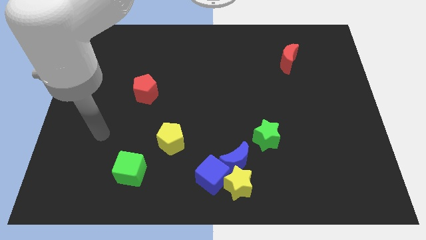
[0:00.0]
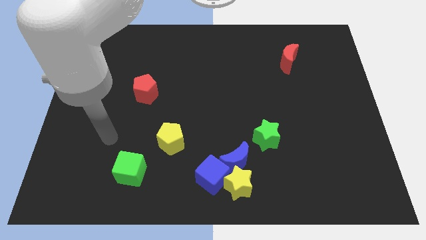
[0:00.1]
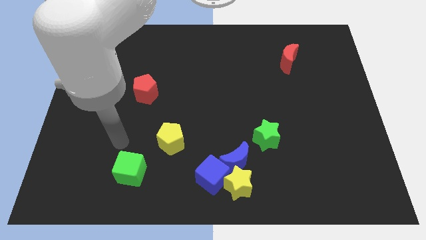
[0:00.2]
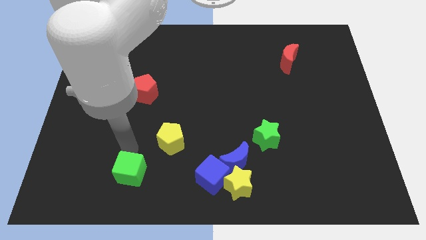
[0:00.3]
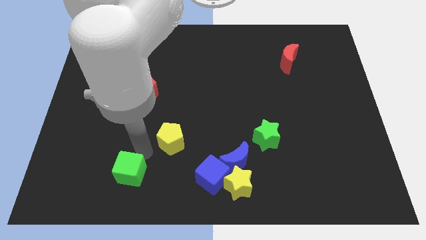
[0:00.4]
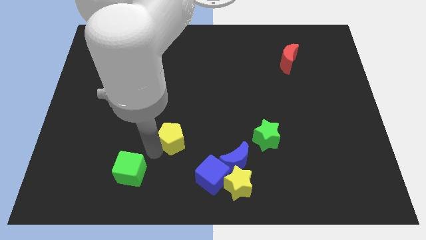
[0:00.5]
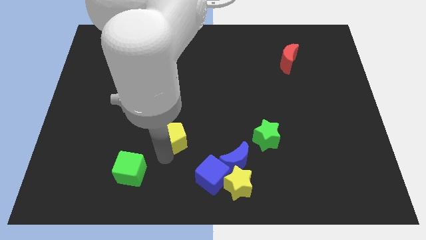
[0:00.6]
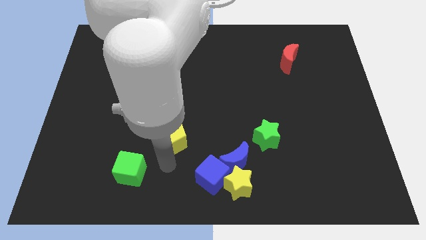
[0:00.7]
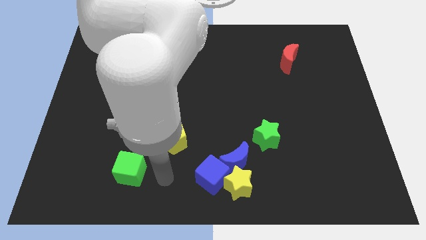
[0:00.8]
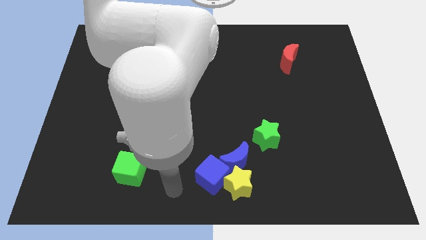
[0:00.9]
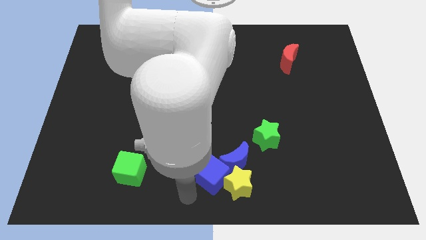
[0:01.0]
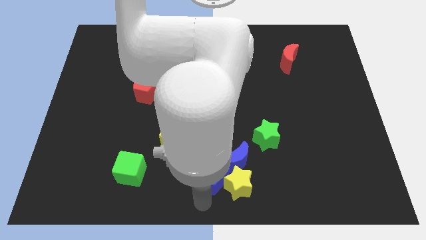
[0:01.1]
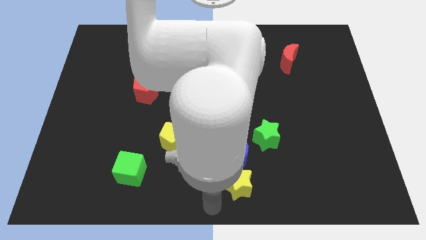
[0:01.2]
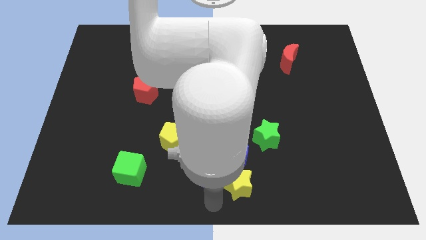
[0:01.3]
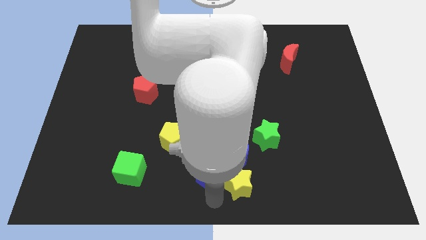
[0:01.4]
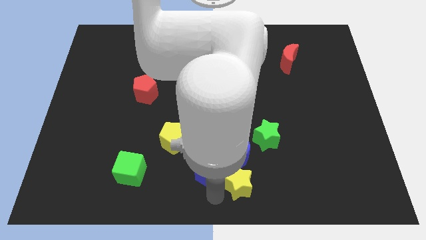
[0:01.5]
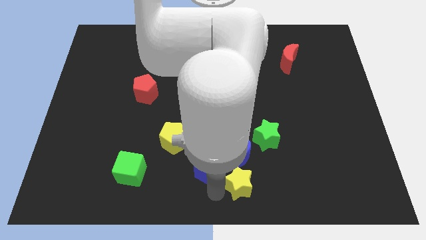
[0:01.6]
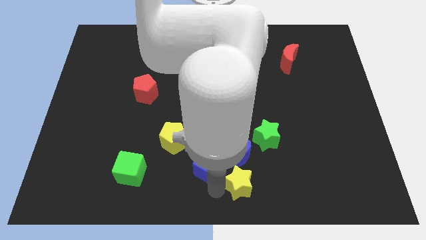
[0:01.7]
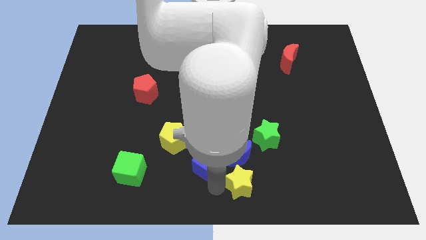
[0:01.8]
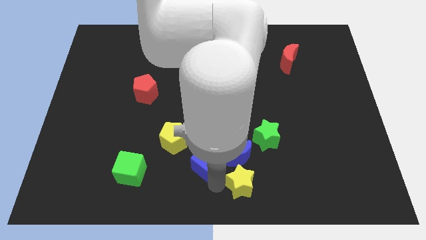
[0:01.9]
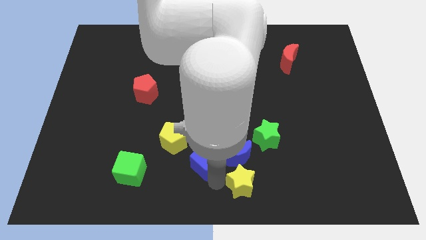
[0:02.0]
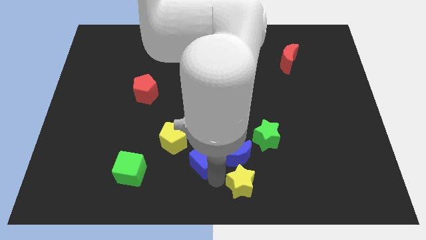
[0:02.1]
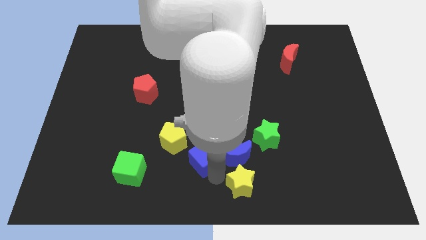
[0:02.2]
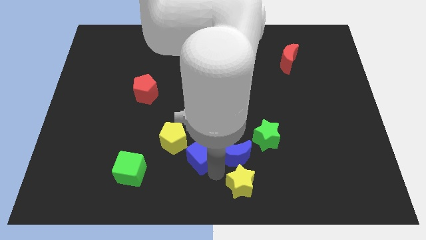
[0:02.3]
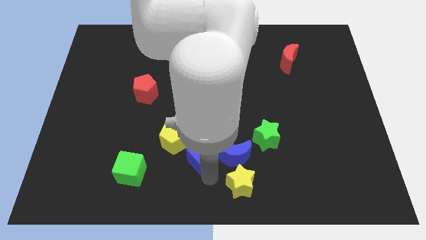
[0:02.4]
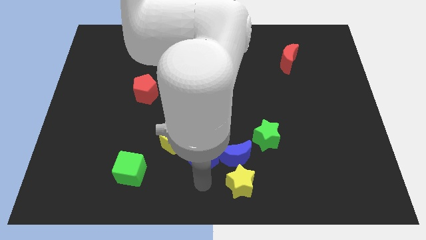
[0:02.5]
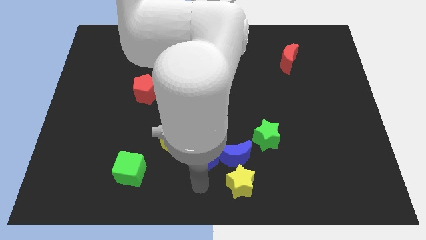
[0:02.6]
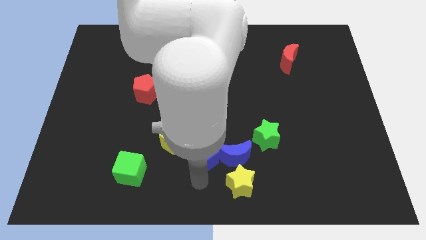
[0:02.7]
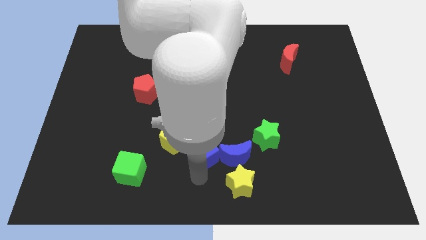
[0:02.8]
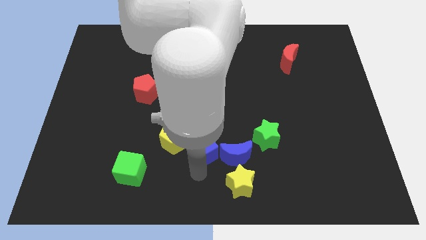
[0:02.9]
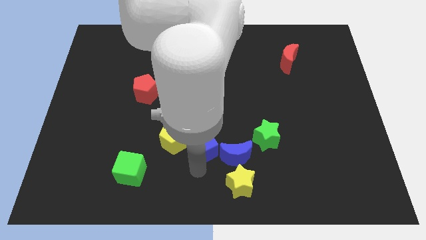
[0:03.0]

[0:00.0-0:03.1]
slightly push the blue cube up

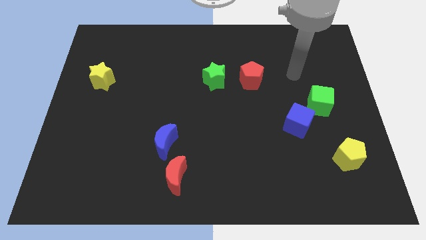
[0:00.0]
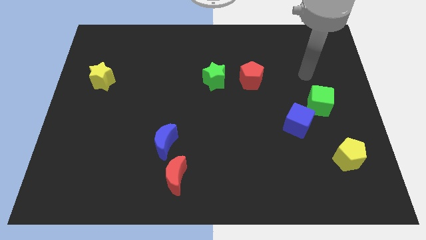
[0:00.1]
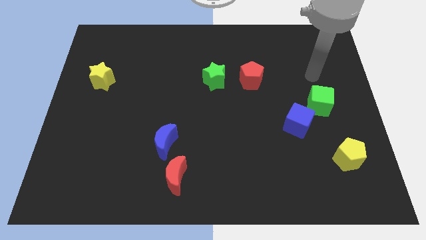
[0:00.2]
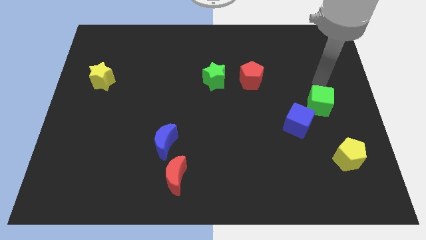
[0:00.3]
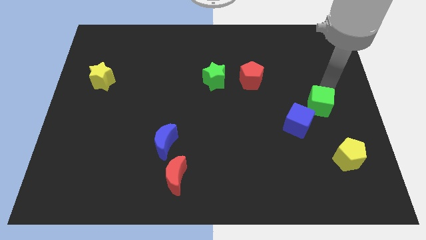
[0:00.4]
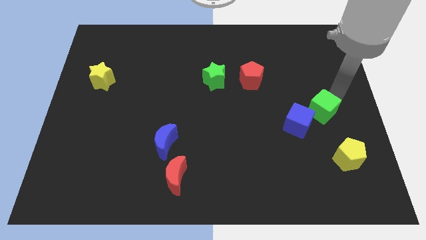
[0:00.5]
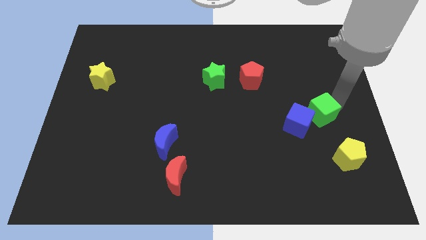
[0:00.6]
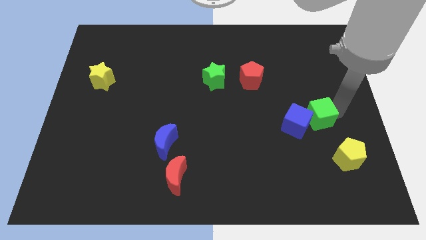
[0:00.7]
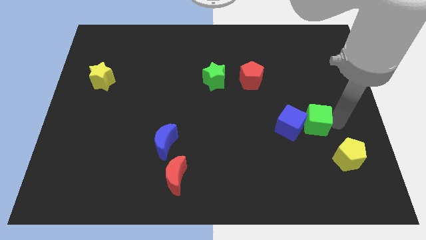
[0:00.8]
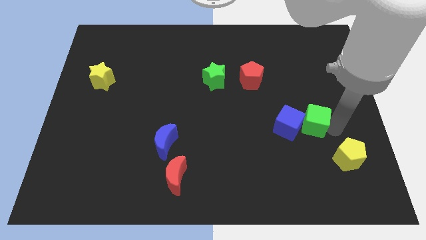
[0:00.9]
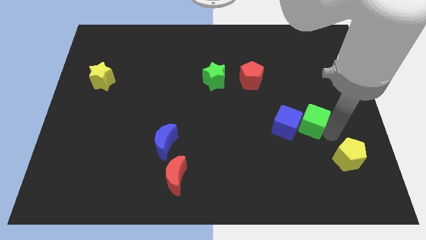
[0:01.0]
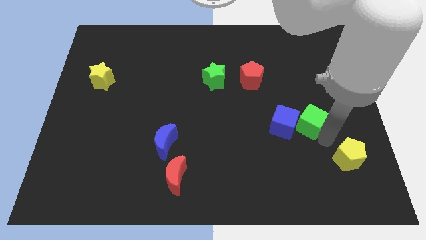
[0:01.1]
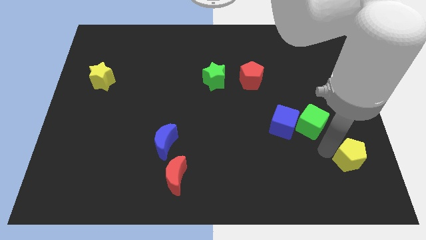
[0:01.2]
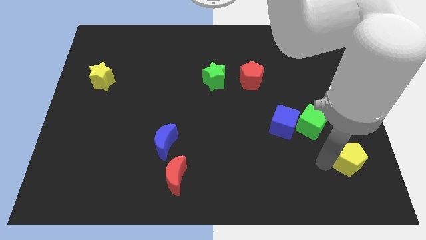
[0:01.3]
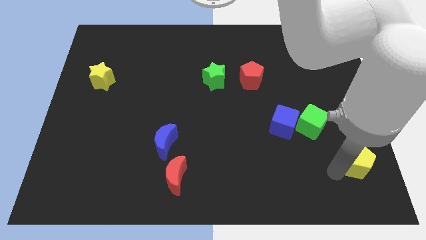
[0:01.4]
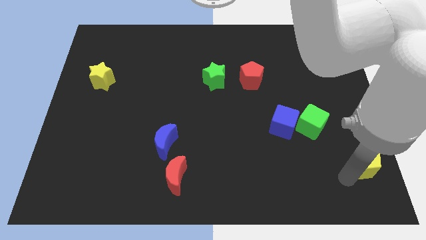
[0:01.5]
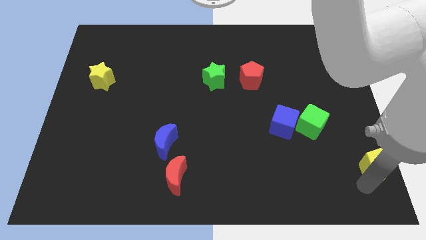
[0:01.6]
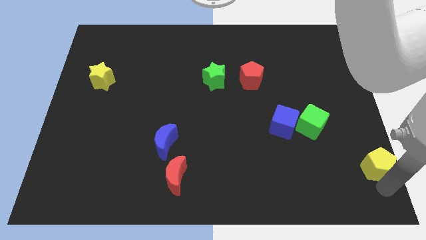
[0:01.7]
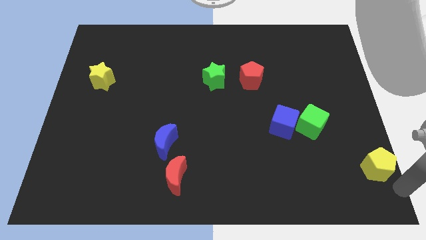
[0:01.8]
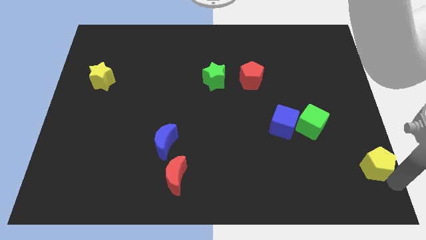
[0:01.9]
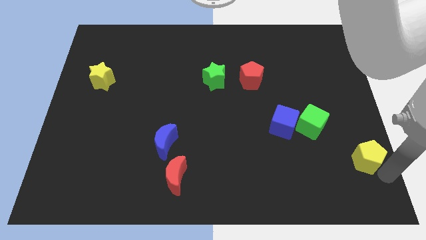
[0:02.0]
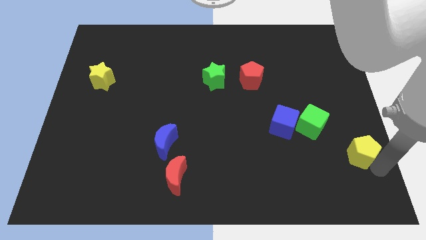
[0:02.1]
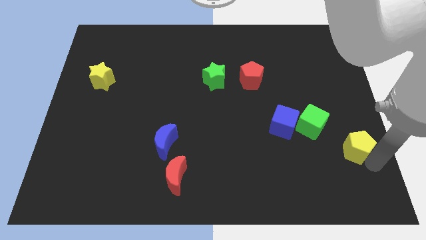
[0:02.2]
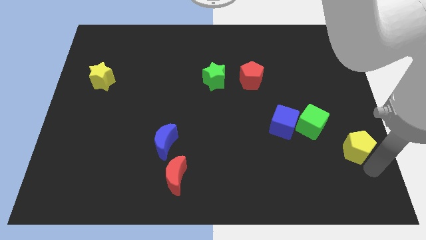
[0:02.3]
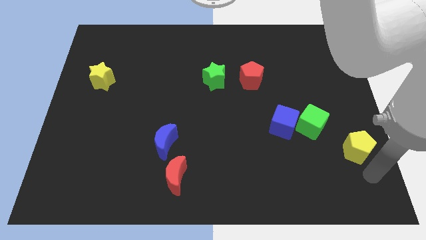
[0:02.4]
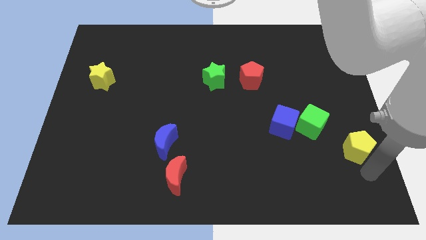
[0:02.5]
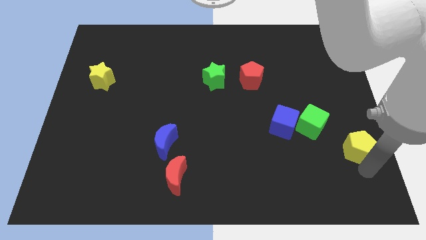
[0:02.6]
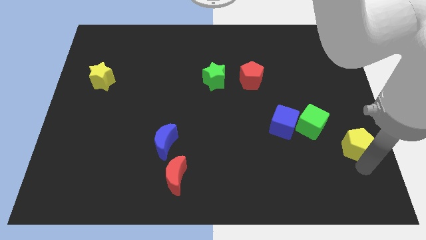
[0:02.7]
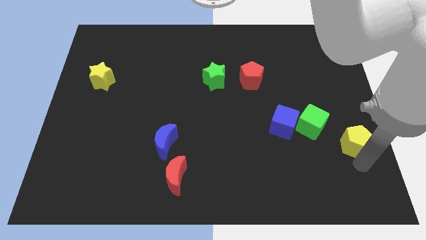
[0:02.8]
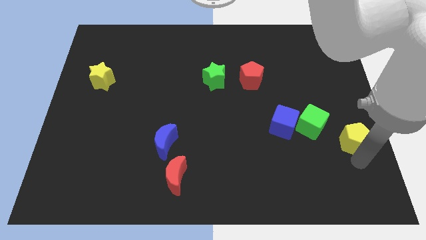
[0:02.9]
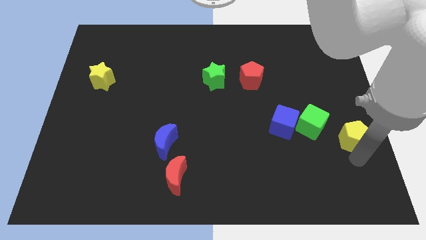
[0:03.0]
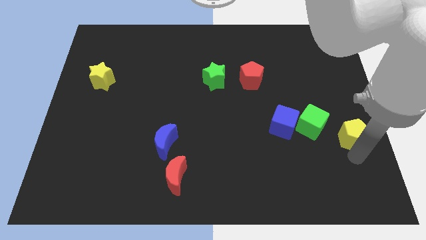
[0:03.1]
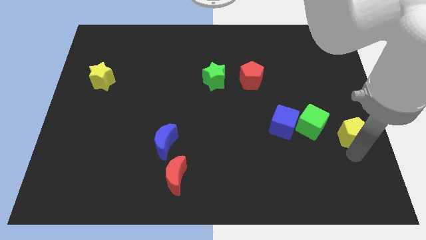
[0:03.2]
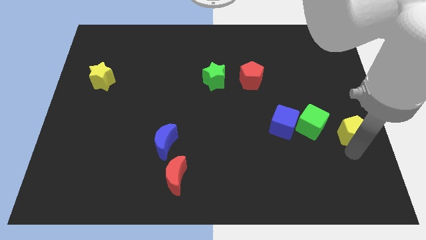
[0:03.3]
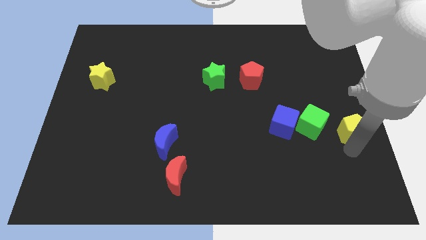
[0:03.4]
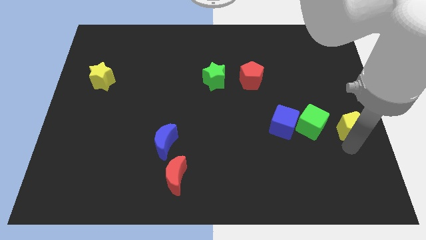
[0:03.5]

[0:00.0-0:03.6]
slide the yellow pentagon somewhat up

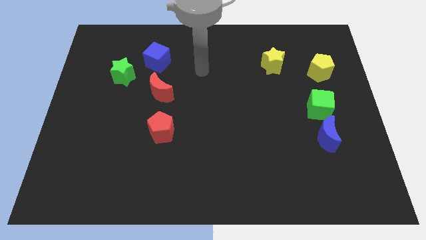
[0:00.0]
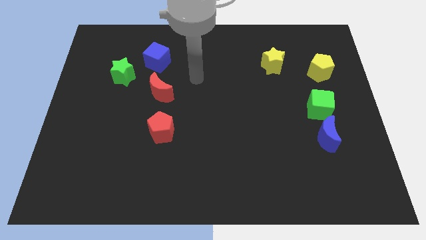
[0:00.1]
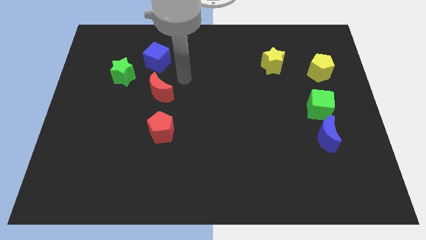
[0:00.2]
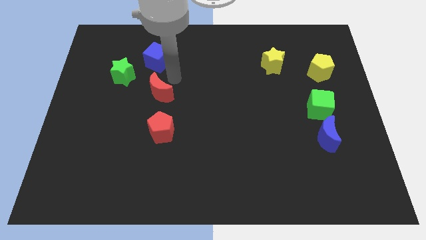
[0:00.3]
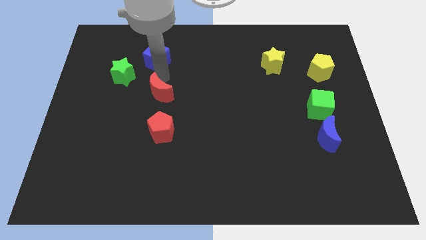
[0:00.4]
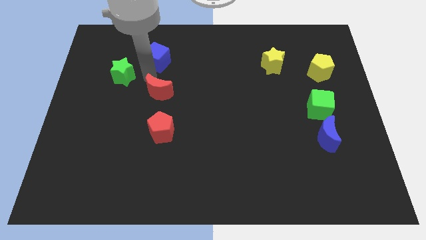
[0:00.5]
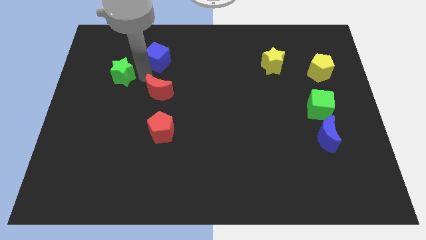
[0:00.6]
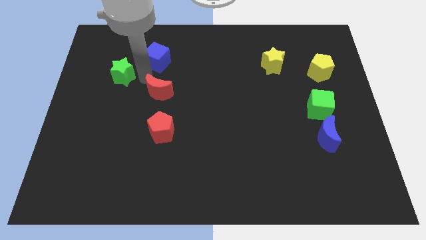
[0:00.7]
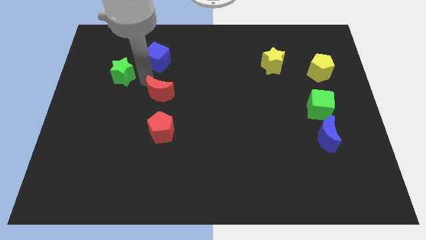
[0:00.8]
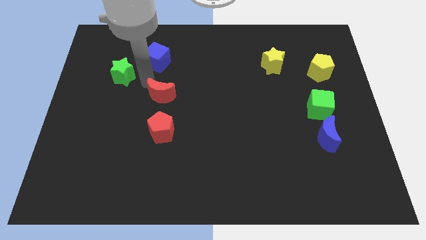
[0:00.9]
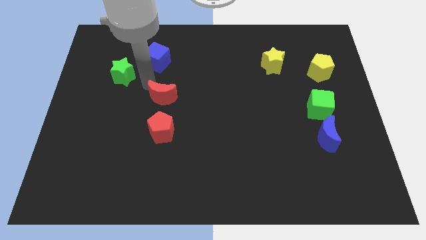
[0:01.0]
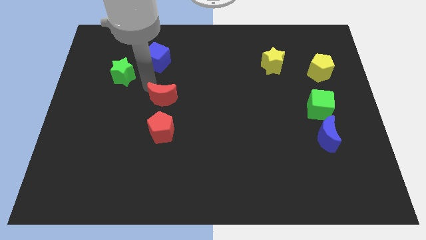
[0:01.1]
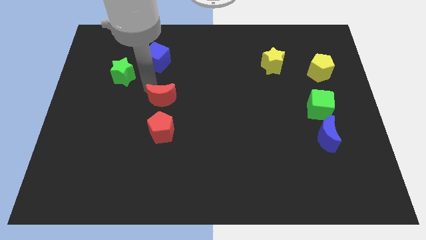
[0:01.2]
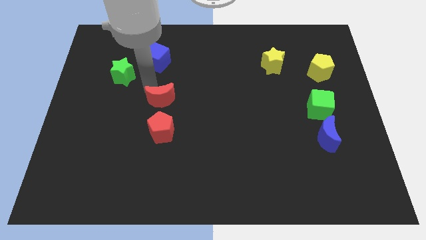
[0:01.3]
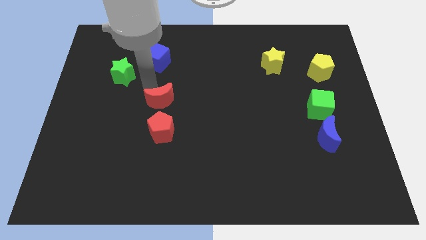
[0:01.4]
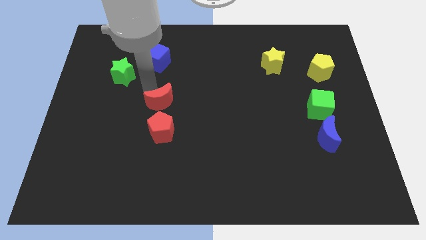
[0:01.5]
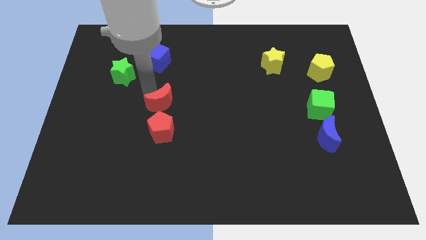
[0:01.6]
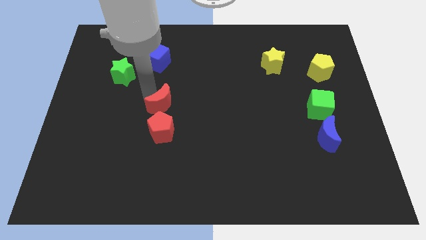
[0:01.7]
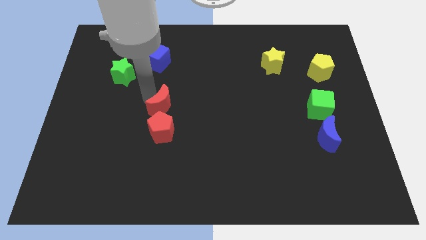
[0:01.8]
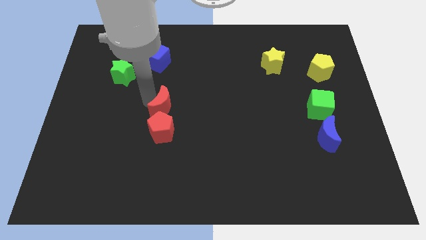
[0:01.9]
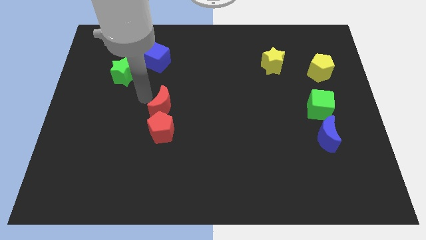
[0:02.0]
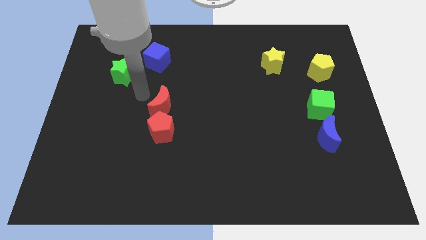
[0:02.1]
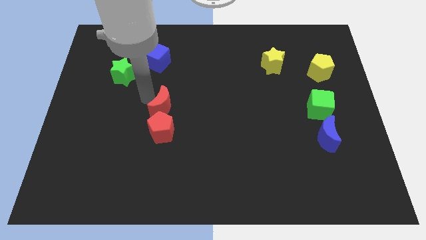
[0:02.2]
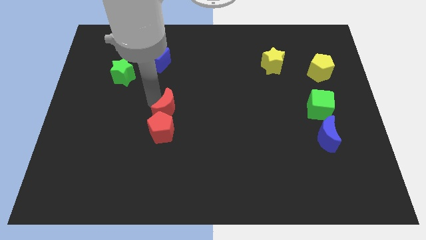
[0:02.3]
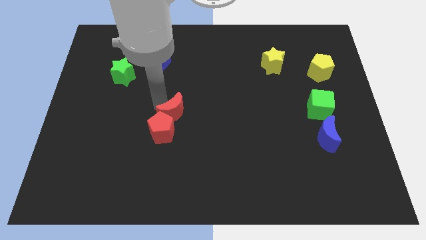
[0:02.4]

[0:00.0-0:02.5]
move the red moon downwards and then to the right a little
